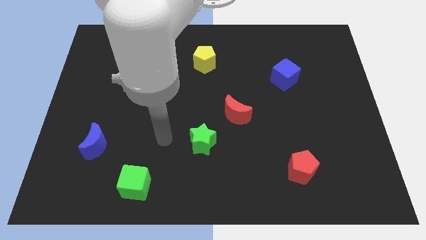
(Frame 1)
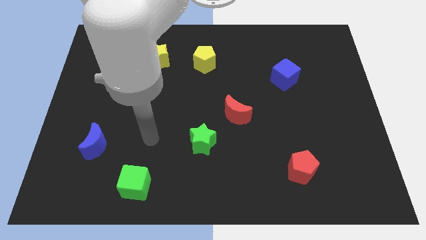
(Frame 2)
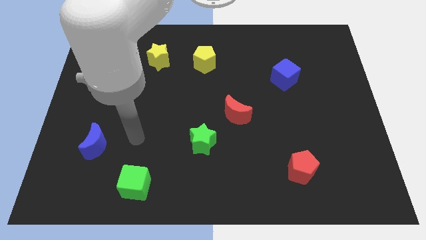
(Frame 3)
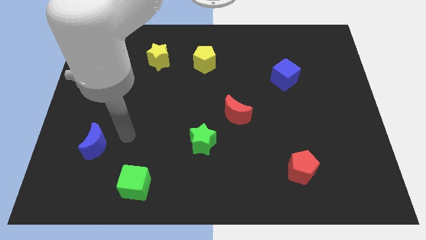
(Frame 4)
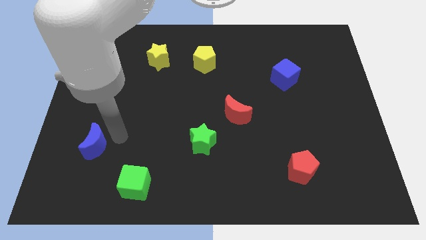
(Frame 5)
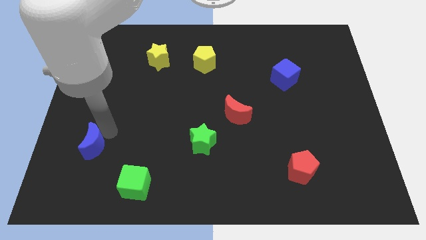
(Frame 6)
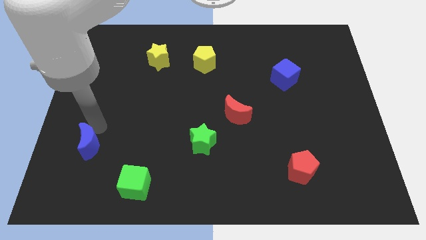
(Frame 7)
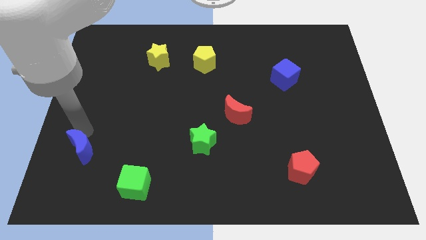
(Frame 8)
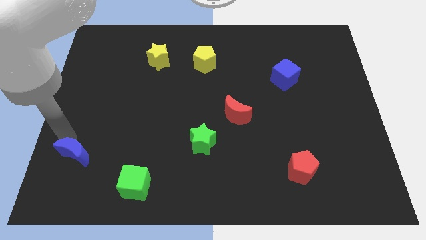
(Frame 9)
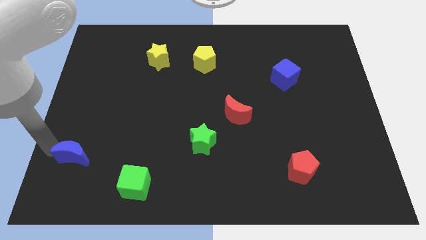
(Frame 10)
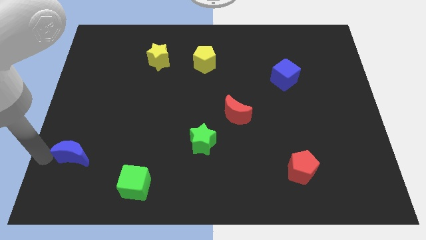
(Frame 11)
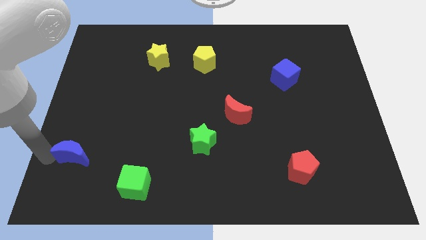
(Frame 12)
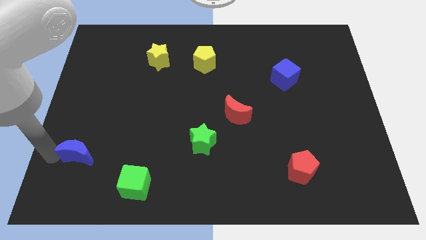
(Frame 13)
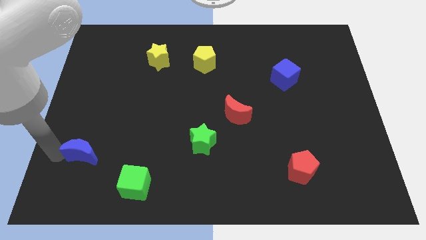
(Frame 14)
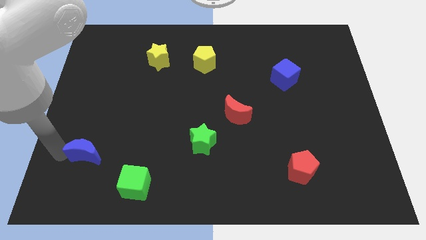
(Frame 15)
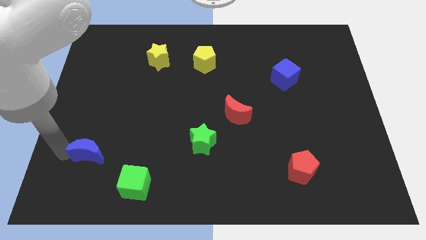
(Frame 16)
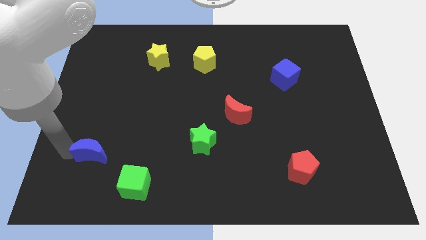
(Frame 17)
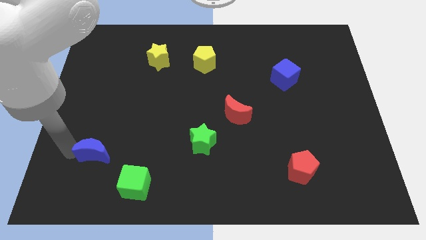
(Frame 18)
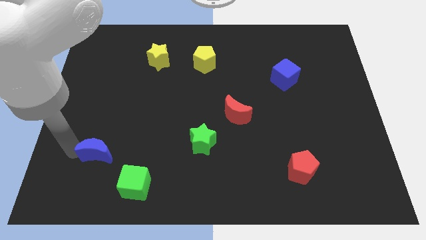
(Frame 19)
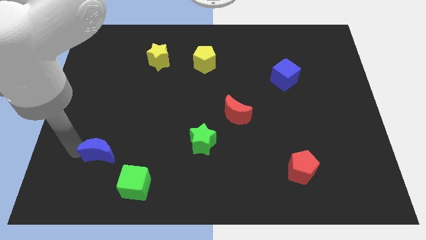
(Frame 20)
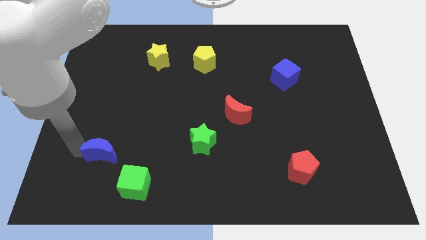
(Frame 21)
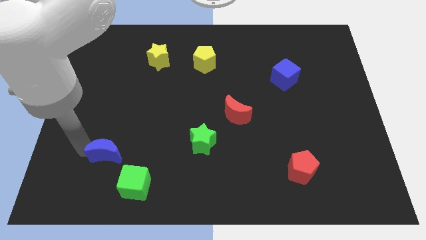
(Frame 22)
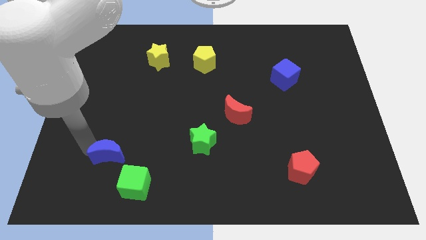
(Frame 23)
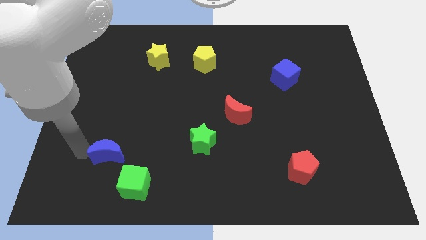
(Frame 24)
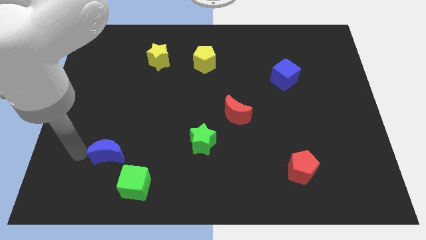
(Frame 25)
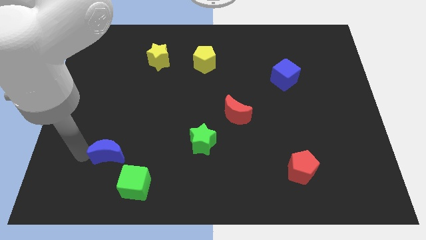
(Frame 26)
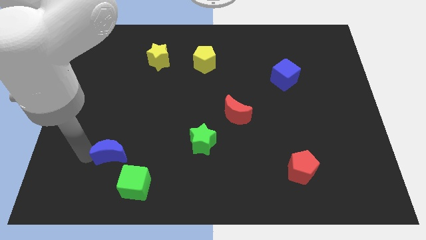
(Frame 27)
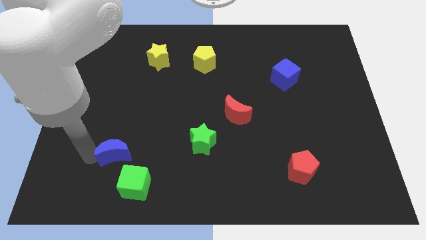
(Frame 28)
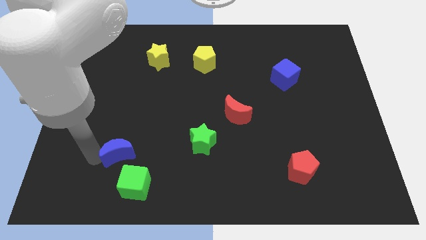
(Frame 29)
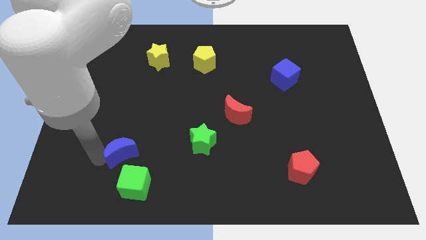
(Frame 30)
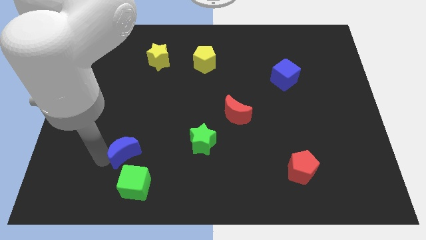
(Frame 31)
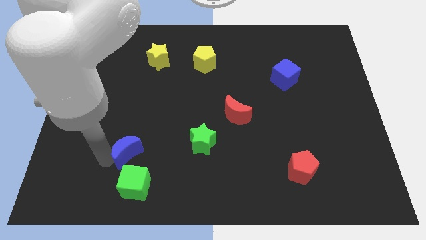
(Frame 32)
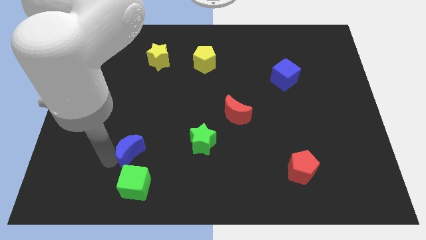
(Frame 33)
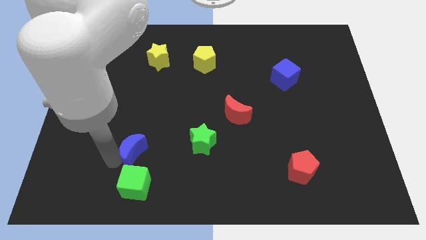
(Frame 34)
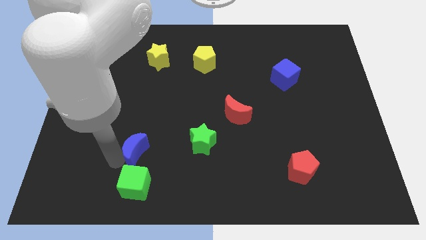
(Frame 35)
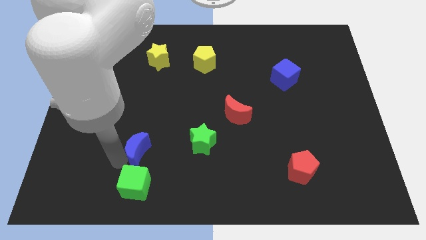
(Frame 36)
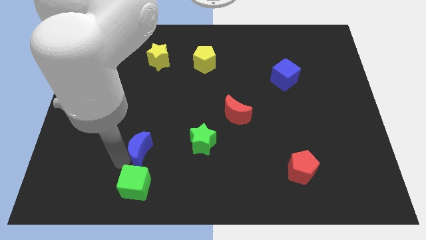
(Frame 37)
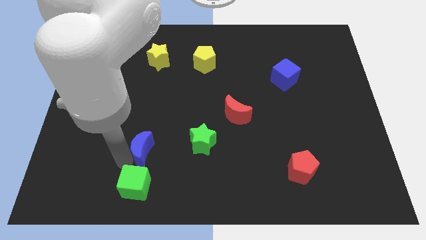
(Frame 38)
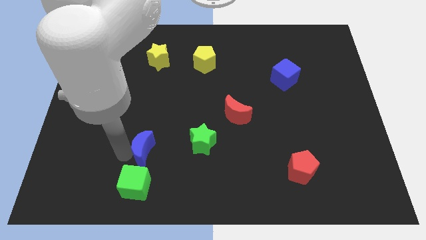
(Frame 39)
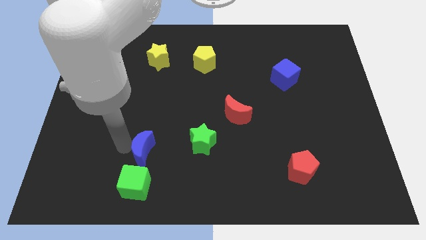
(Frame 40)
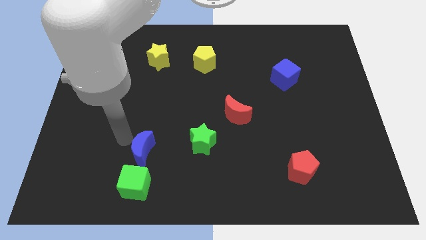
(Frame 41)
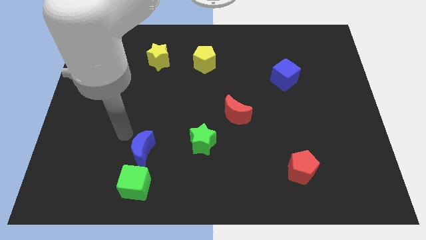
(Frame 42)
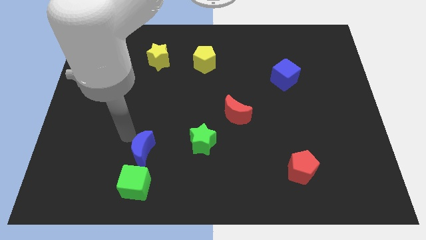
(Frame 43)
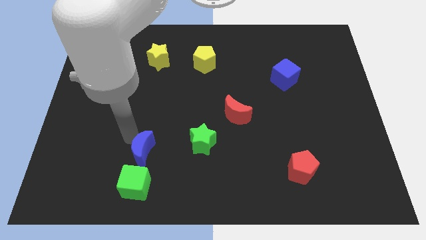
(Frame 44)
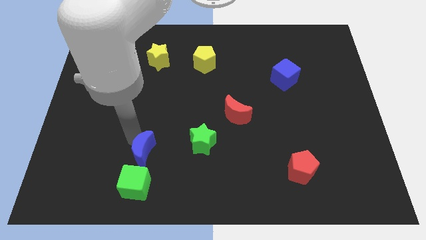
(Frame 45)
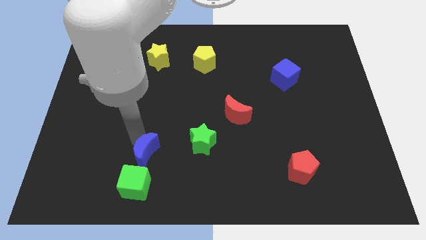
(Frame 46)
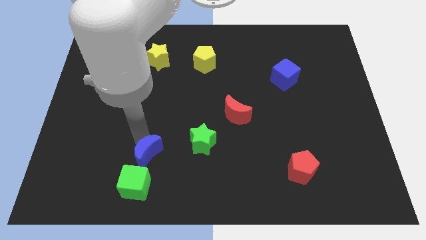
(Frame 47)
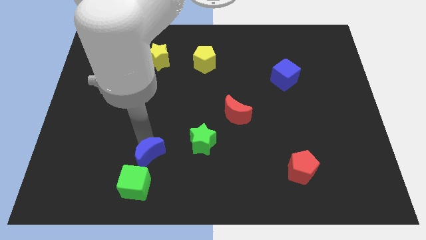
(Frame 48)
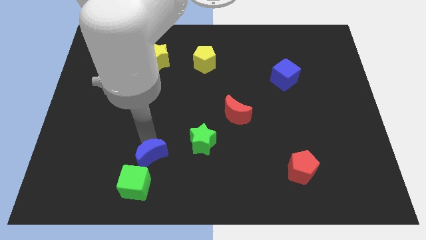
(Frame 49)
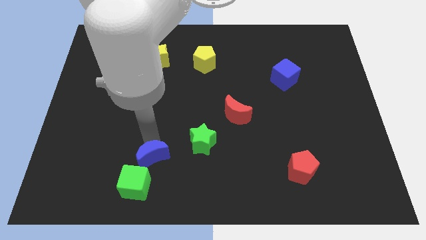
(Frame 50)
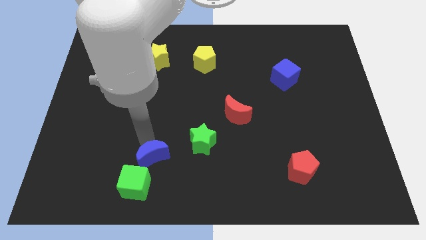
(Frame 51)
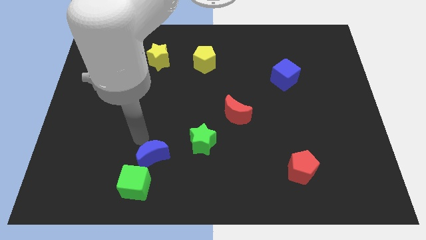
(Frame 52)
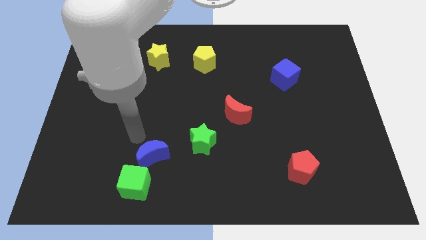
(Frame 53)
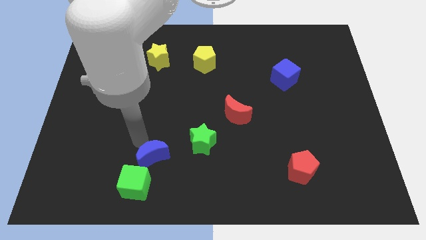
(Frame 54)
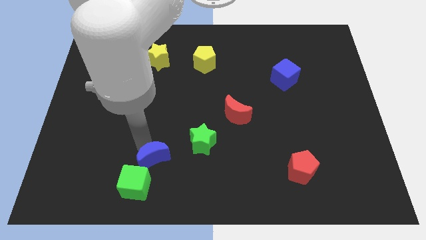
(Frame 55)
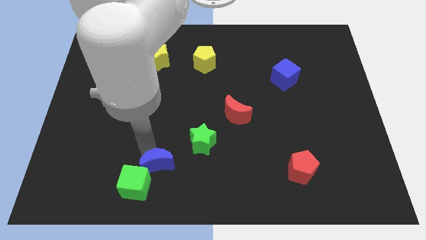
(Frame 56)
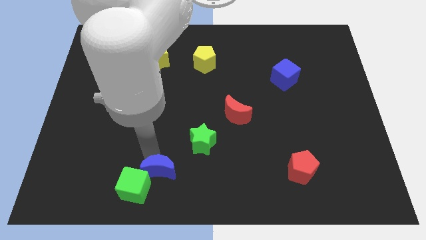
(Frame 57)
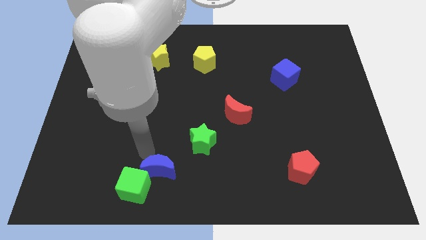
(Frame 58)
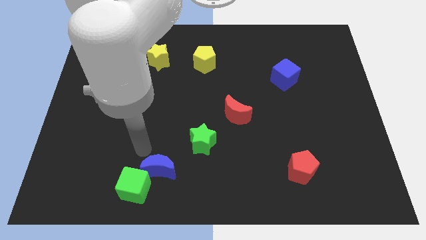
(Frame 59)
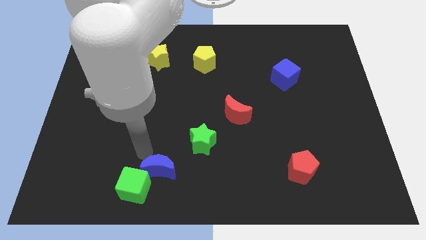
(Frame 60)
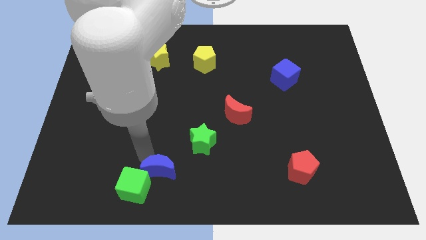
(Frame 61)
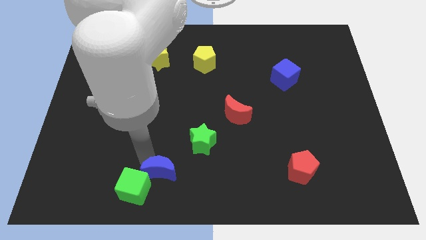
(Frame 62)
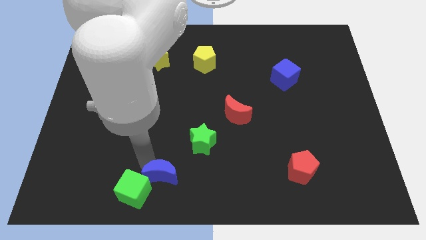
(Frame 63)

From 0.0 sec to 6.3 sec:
move the blue moon to the bottom

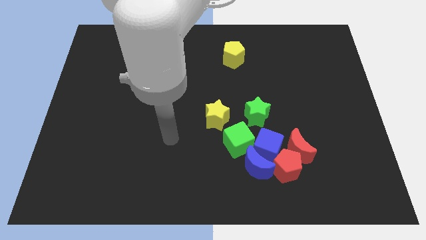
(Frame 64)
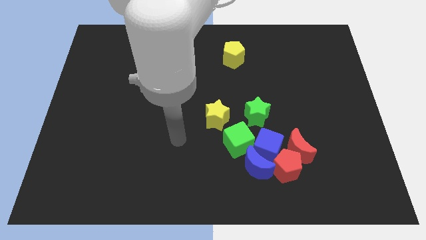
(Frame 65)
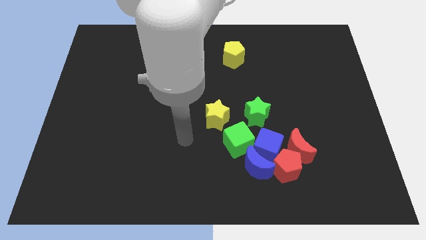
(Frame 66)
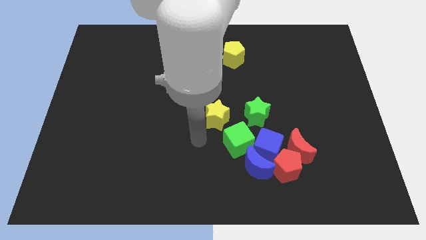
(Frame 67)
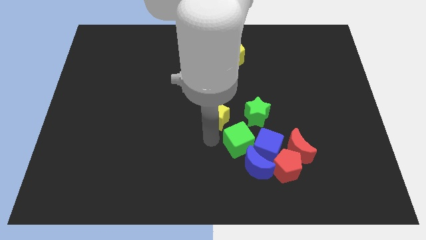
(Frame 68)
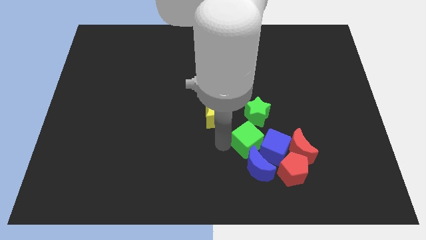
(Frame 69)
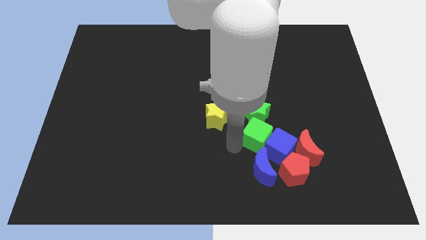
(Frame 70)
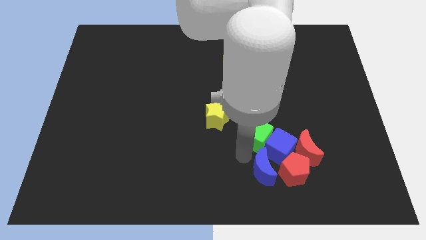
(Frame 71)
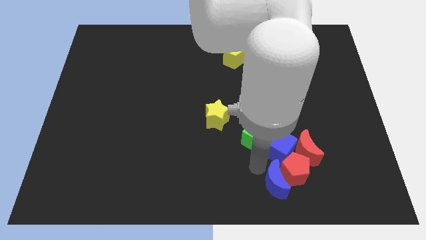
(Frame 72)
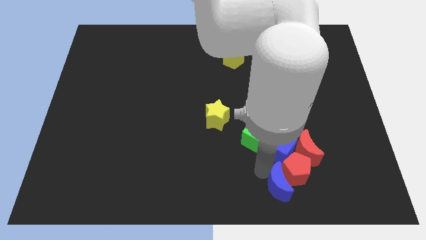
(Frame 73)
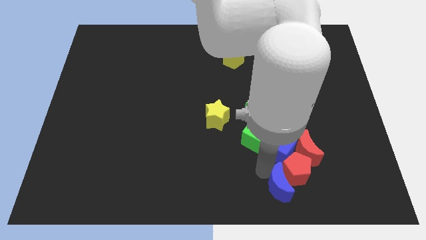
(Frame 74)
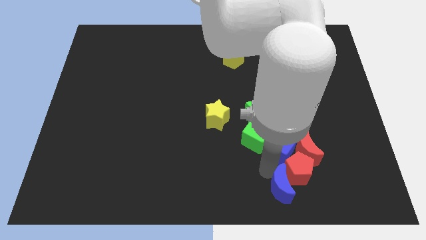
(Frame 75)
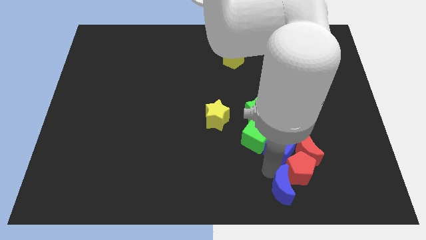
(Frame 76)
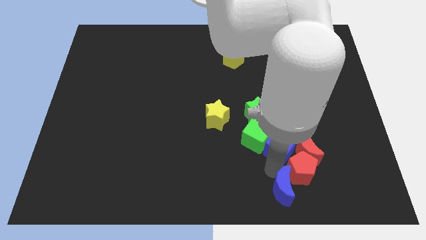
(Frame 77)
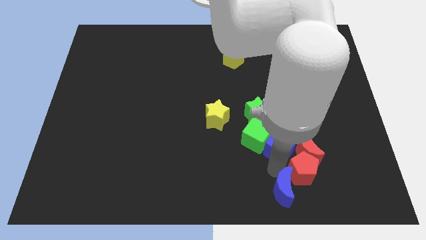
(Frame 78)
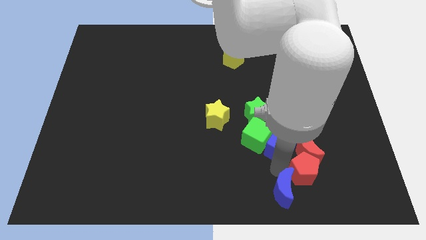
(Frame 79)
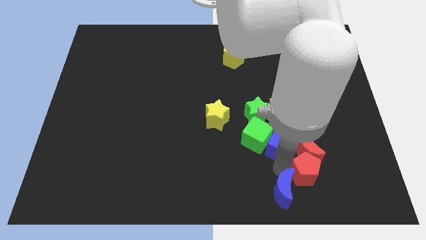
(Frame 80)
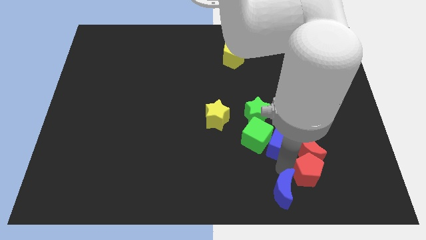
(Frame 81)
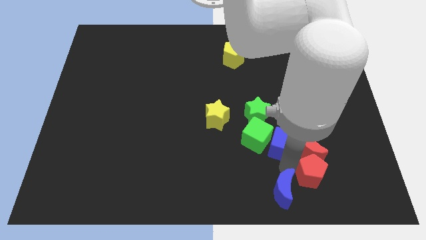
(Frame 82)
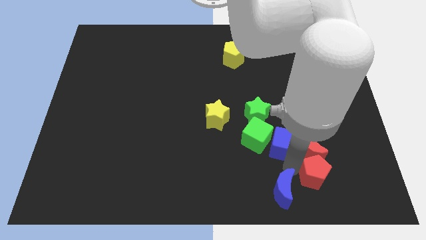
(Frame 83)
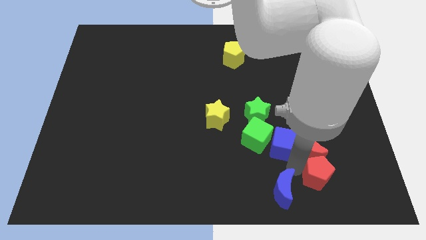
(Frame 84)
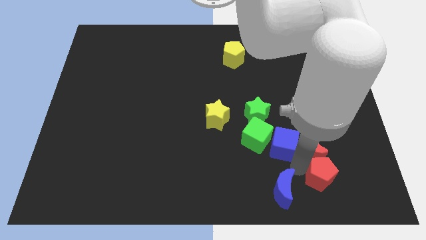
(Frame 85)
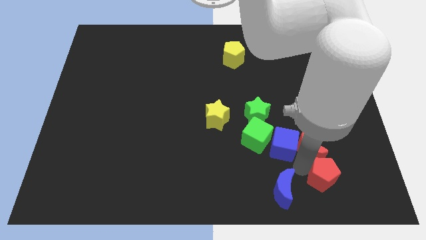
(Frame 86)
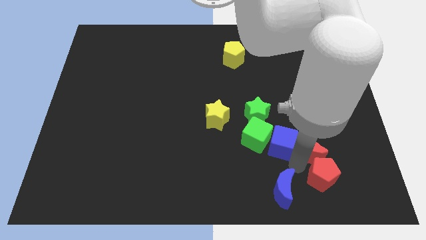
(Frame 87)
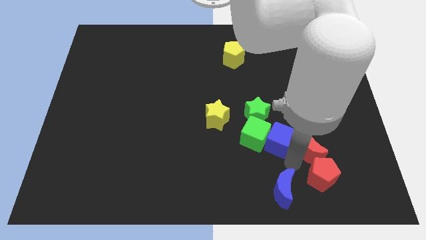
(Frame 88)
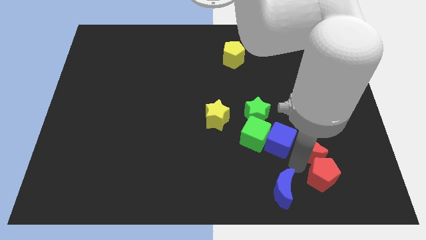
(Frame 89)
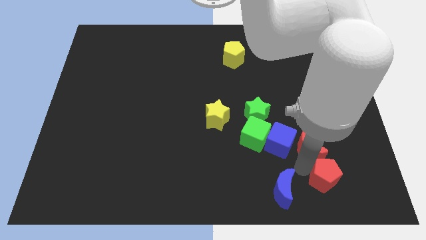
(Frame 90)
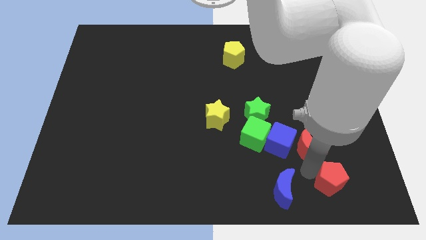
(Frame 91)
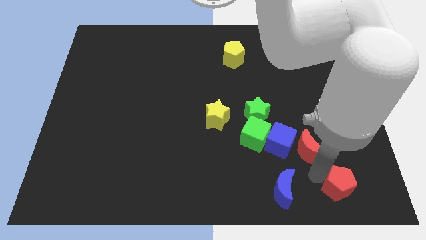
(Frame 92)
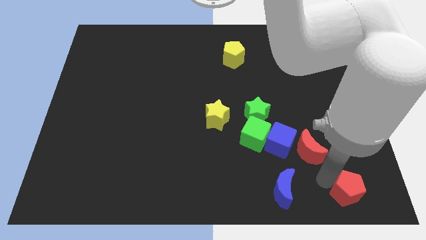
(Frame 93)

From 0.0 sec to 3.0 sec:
slide the red pentagon to the bottom right
